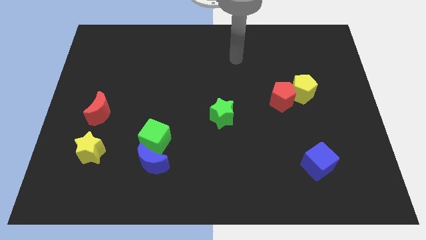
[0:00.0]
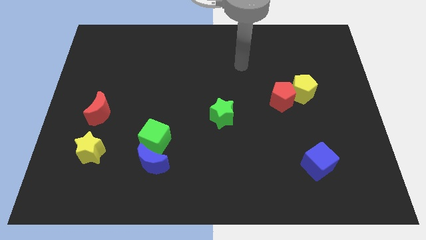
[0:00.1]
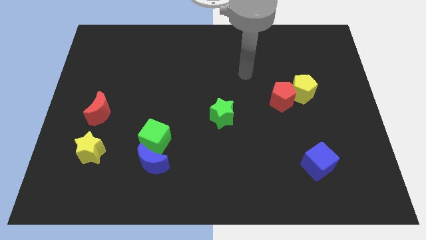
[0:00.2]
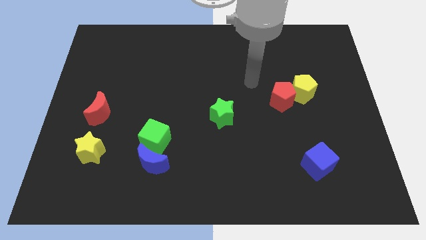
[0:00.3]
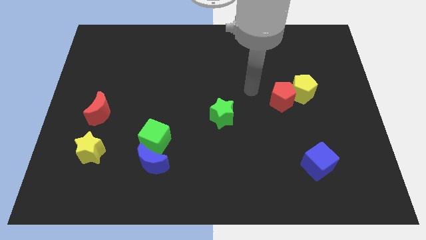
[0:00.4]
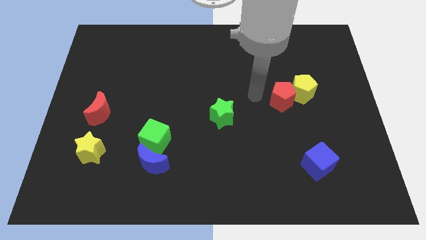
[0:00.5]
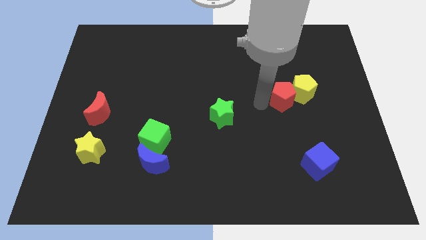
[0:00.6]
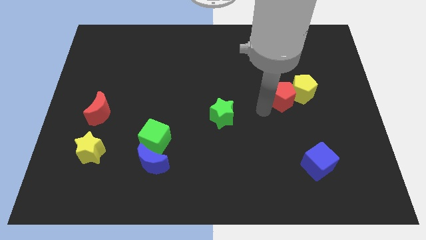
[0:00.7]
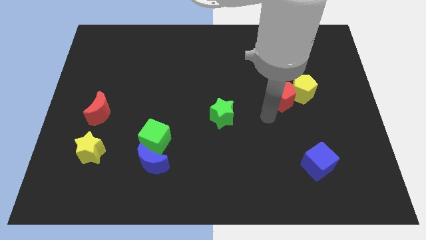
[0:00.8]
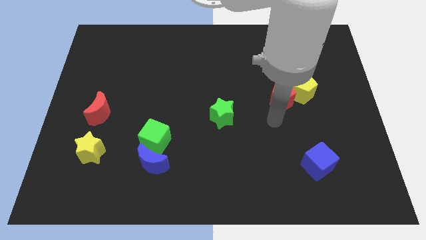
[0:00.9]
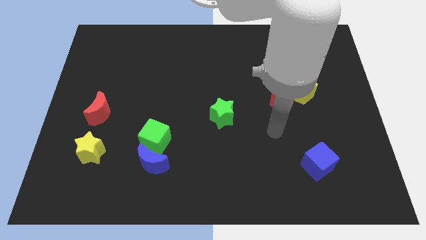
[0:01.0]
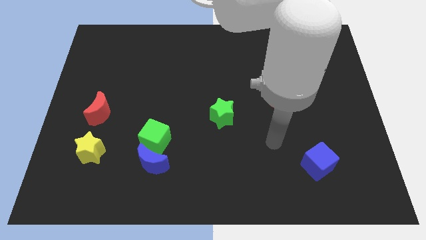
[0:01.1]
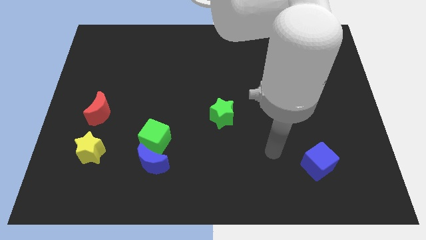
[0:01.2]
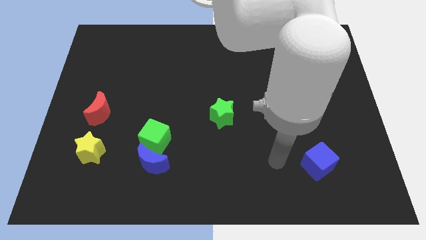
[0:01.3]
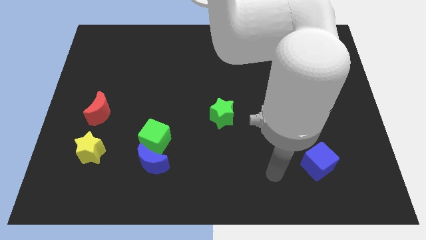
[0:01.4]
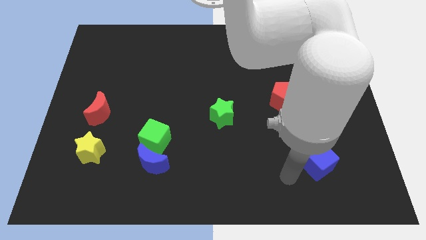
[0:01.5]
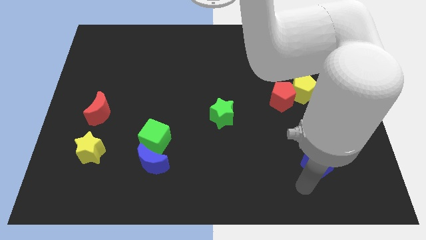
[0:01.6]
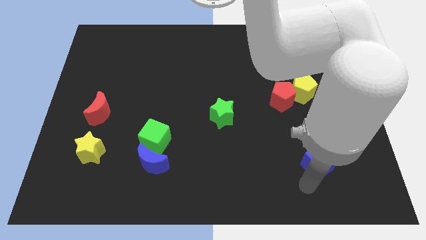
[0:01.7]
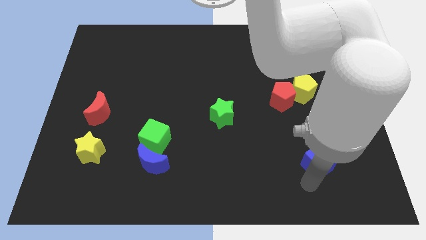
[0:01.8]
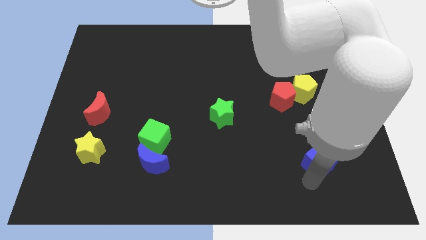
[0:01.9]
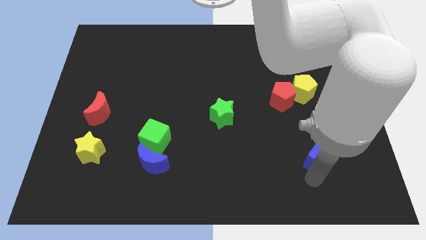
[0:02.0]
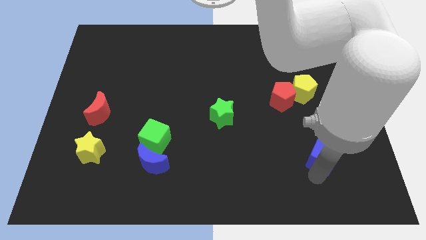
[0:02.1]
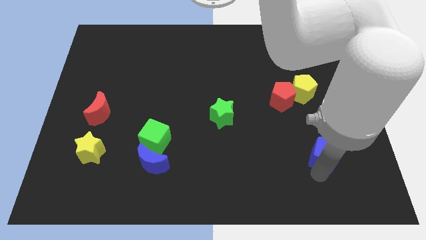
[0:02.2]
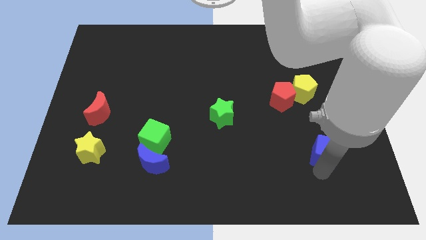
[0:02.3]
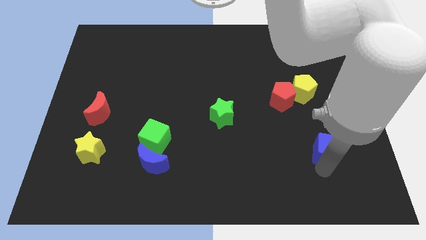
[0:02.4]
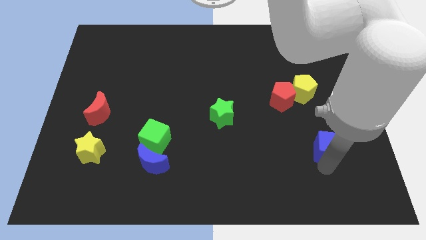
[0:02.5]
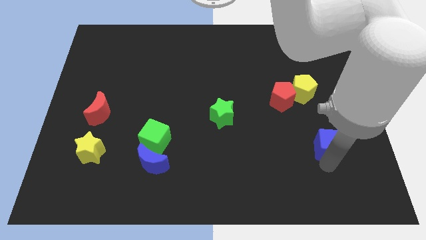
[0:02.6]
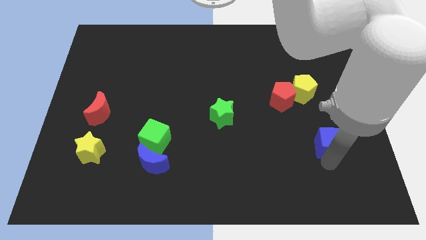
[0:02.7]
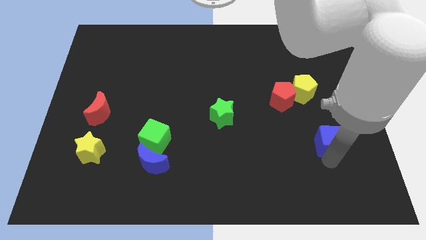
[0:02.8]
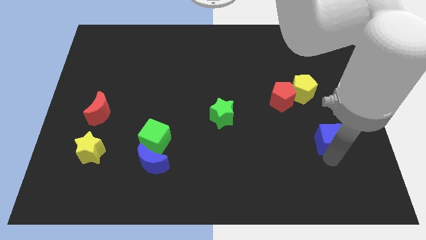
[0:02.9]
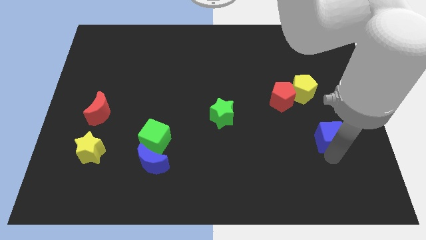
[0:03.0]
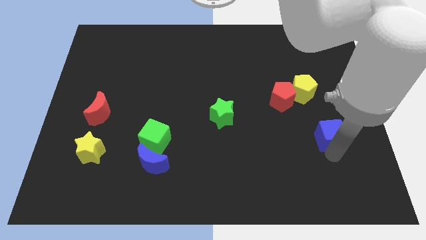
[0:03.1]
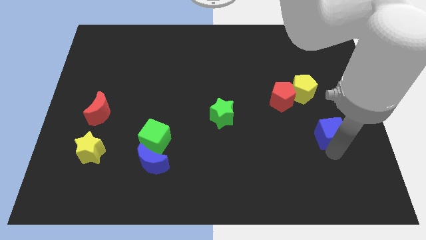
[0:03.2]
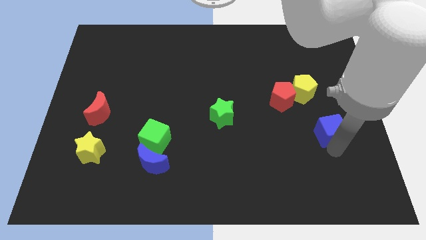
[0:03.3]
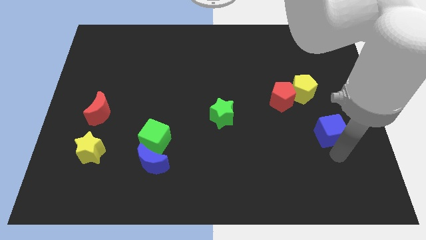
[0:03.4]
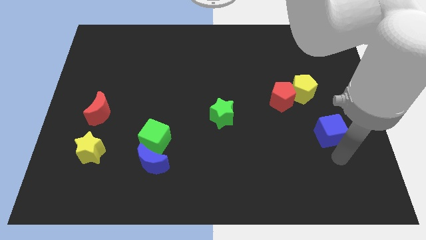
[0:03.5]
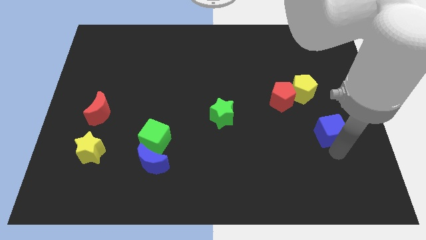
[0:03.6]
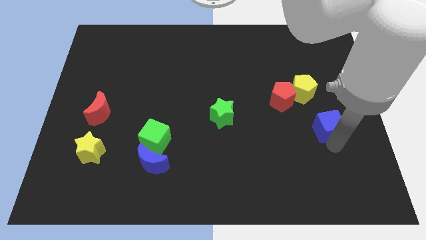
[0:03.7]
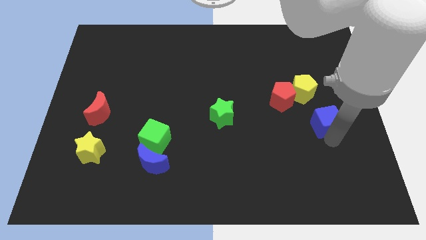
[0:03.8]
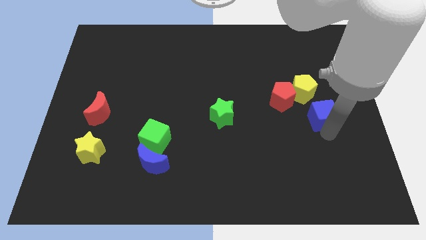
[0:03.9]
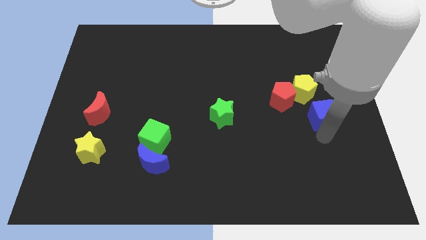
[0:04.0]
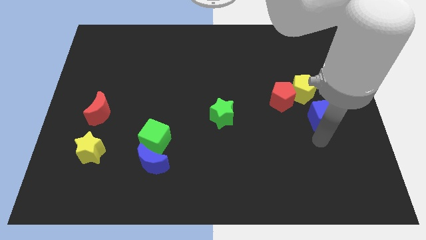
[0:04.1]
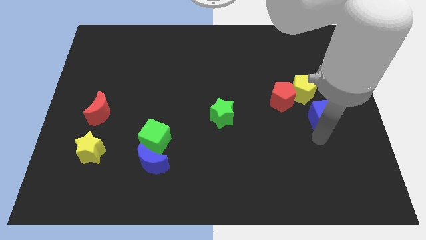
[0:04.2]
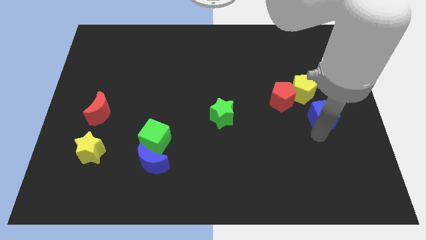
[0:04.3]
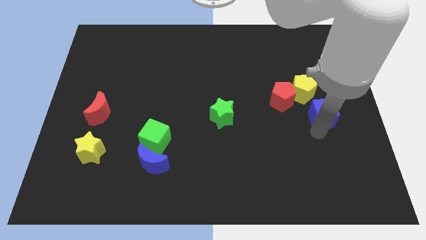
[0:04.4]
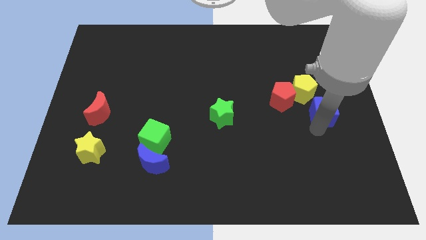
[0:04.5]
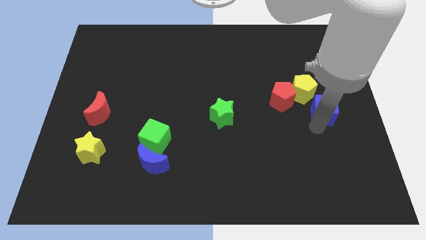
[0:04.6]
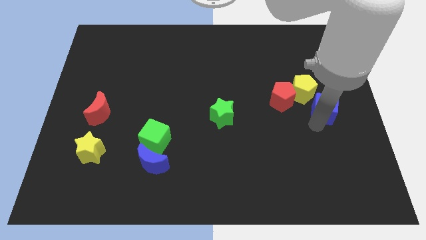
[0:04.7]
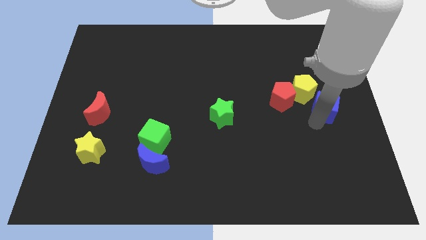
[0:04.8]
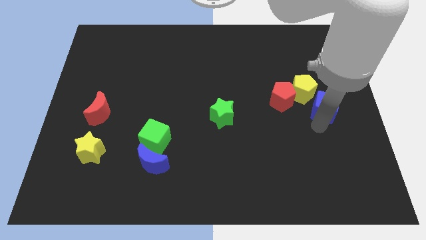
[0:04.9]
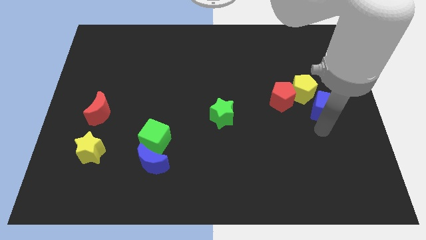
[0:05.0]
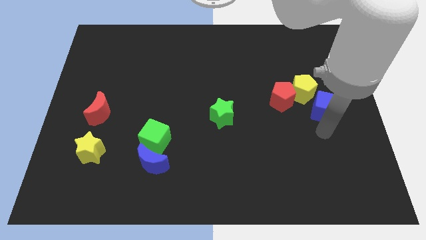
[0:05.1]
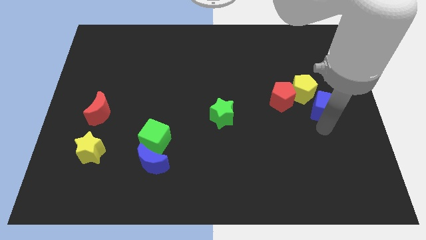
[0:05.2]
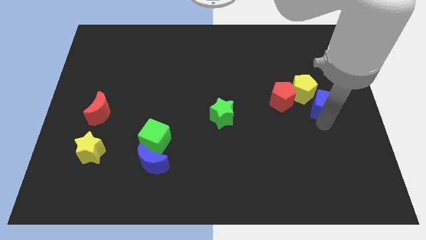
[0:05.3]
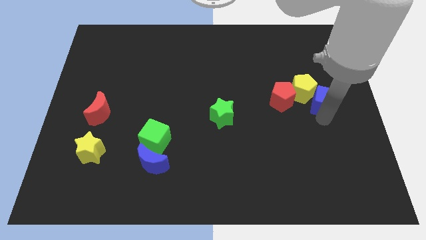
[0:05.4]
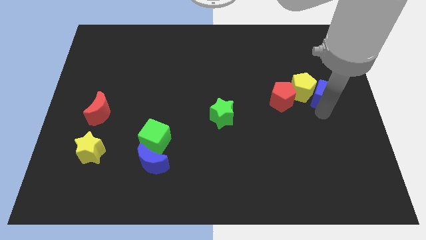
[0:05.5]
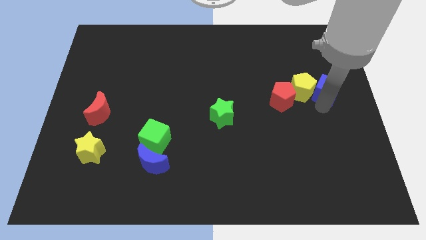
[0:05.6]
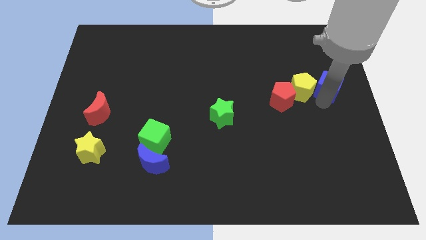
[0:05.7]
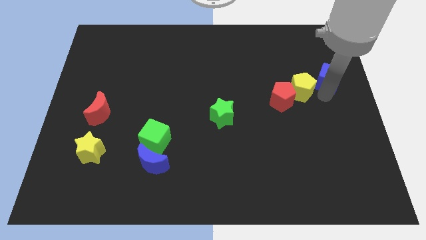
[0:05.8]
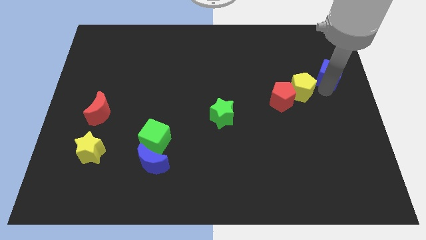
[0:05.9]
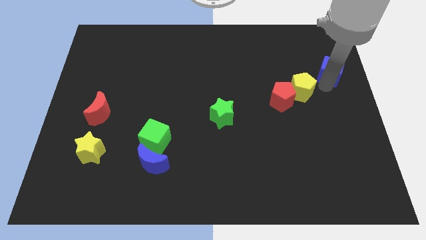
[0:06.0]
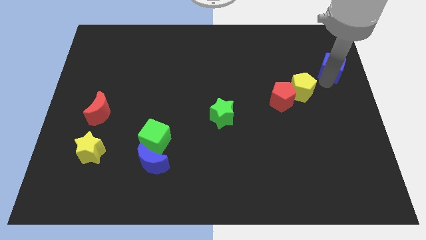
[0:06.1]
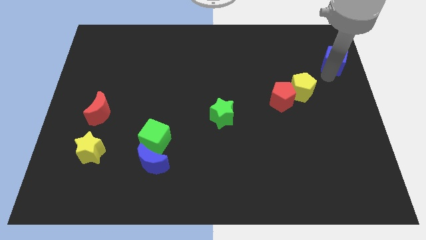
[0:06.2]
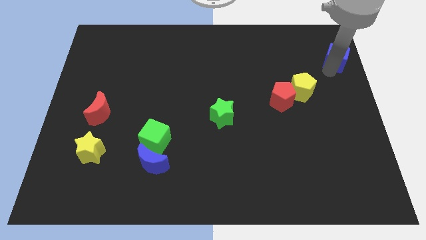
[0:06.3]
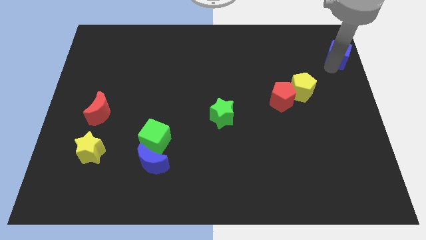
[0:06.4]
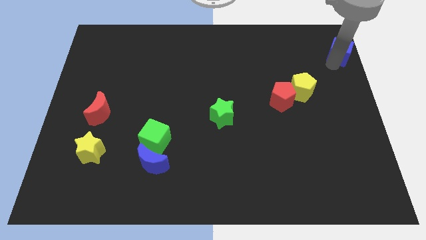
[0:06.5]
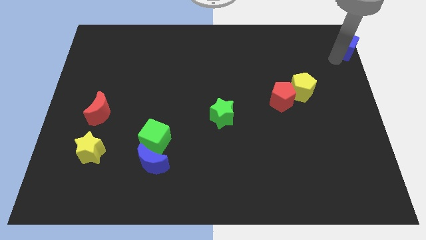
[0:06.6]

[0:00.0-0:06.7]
slide the blue cube to the top right corner
